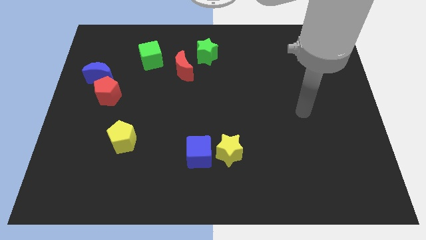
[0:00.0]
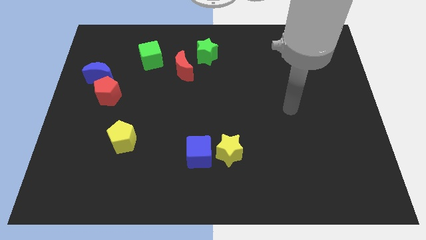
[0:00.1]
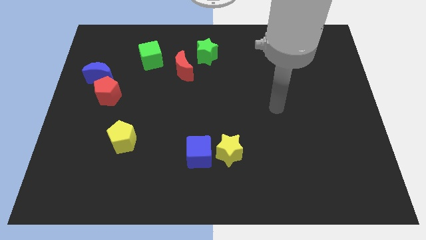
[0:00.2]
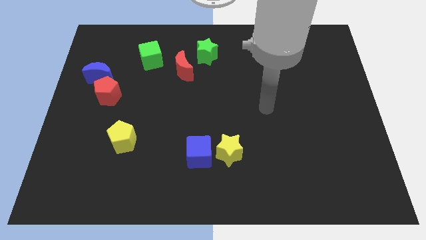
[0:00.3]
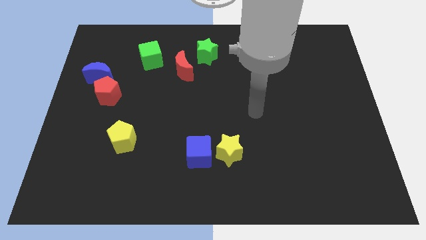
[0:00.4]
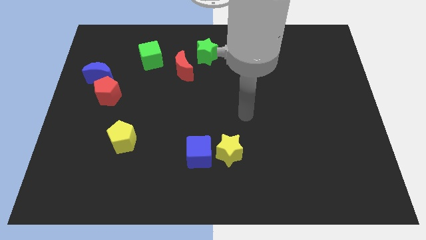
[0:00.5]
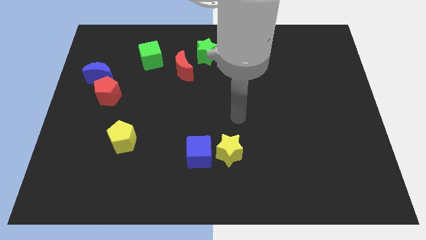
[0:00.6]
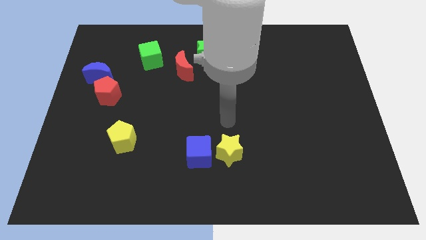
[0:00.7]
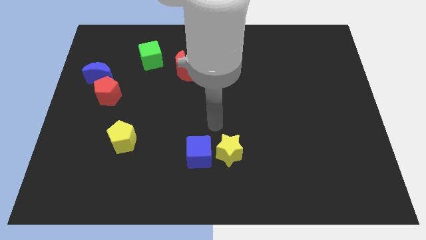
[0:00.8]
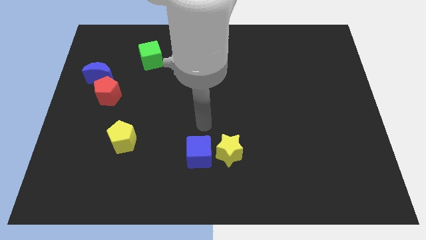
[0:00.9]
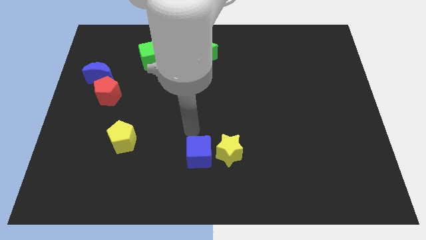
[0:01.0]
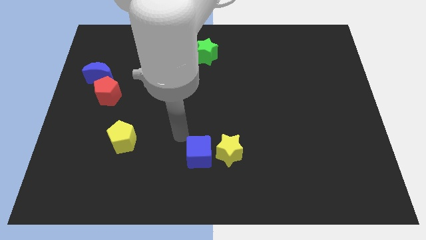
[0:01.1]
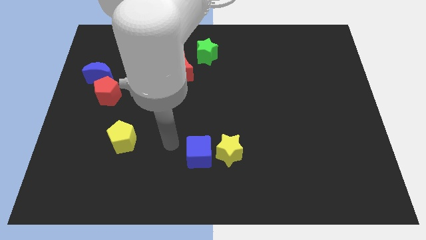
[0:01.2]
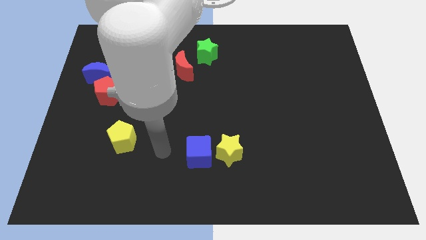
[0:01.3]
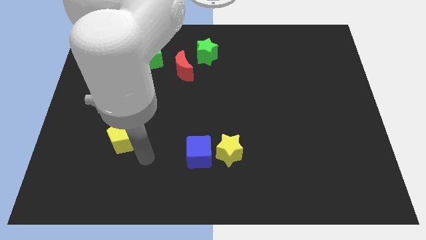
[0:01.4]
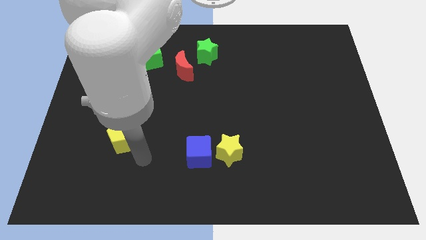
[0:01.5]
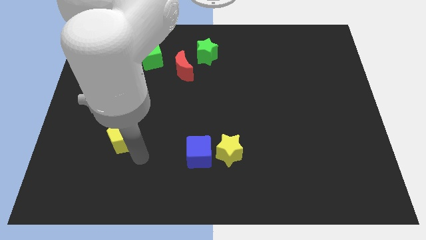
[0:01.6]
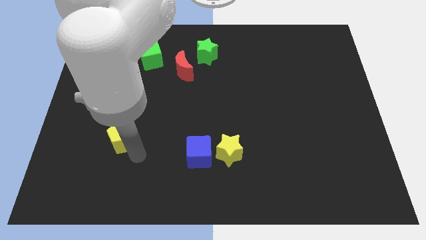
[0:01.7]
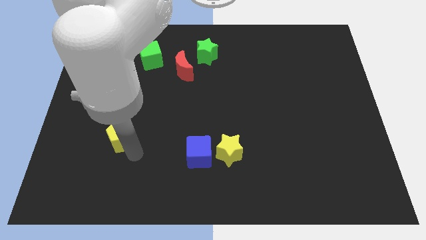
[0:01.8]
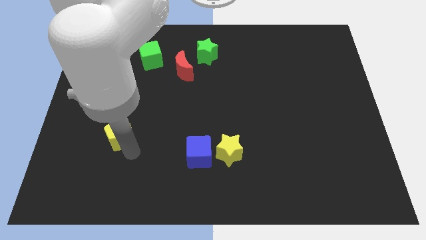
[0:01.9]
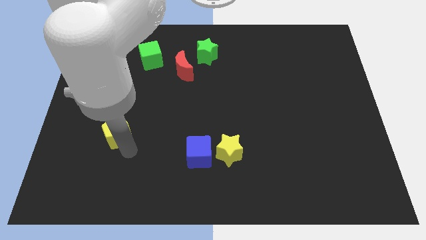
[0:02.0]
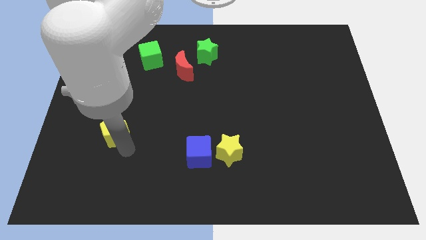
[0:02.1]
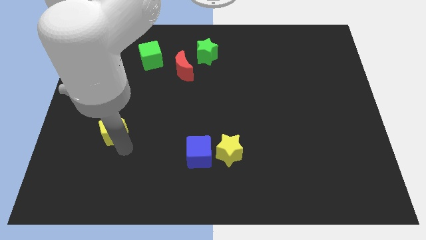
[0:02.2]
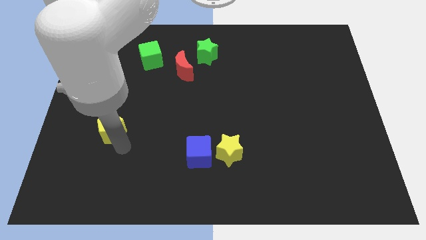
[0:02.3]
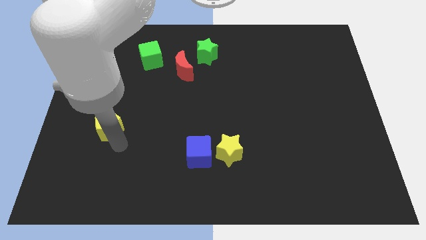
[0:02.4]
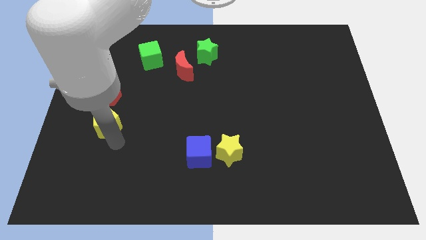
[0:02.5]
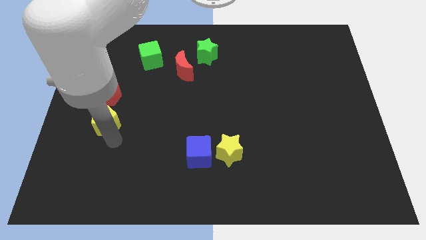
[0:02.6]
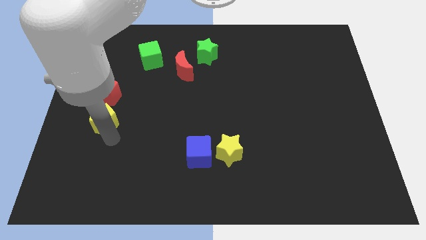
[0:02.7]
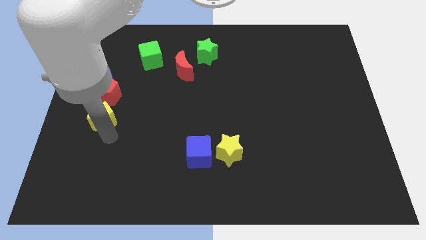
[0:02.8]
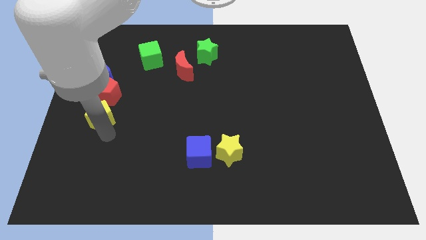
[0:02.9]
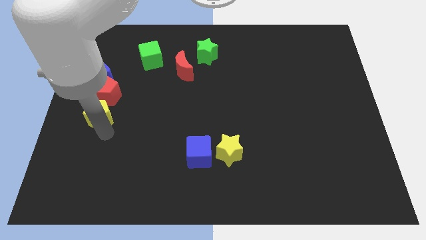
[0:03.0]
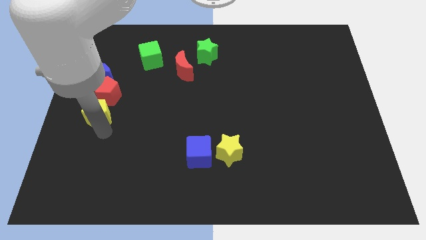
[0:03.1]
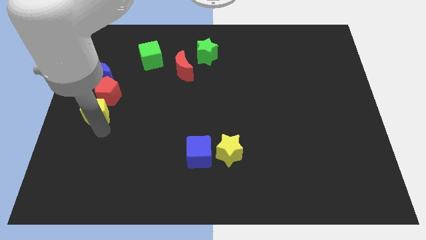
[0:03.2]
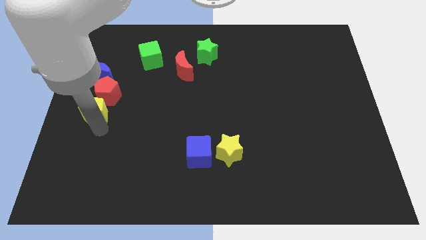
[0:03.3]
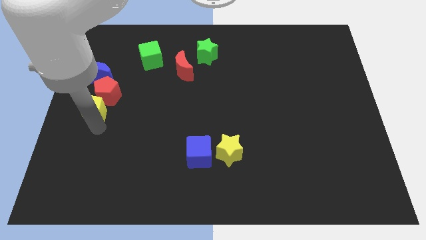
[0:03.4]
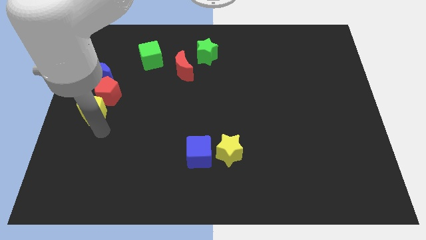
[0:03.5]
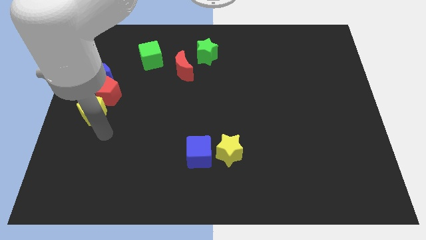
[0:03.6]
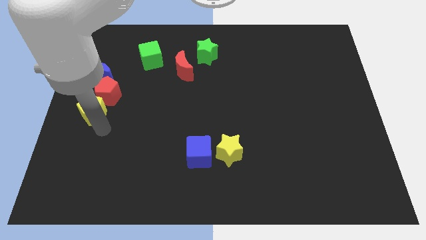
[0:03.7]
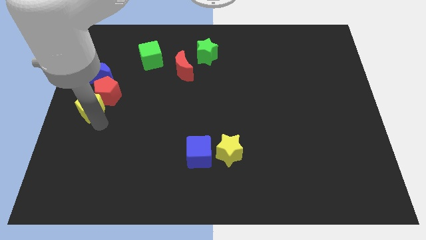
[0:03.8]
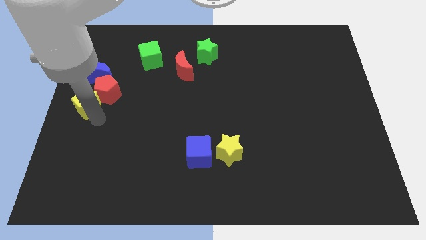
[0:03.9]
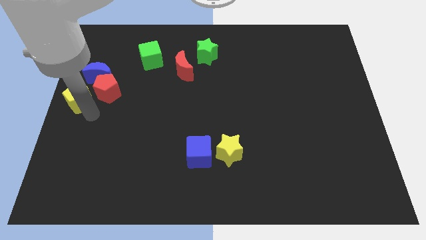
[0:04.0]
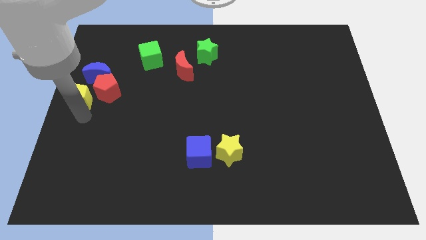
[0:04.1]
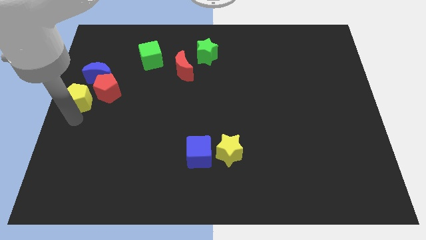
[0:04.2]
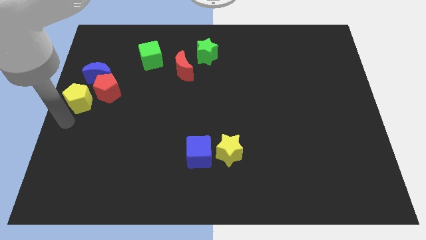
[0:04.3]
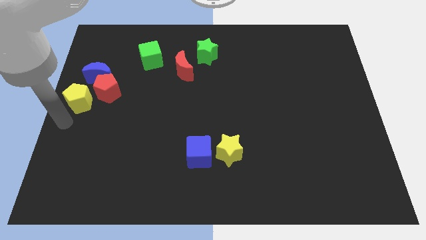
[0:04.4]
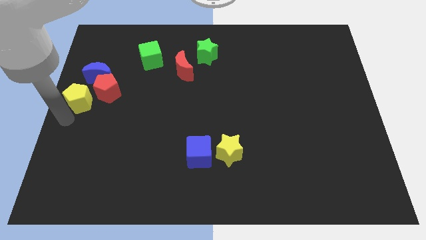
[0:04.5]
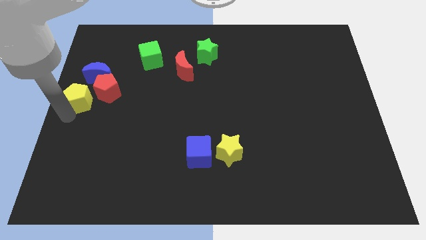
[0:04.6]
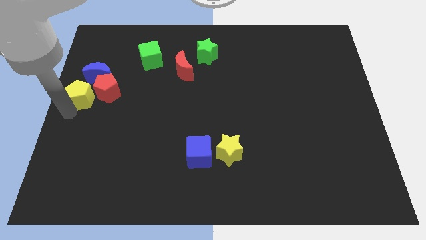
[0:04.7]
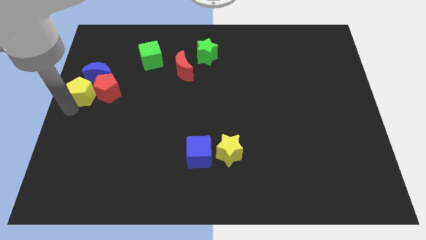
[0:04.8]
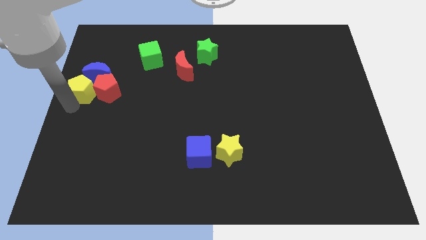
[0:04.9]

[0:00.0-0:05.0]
put the yellow pentagon next to the blue moon

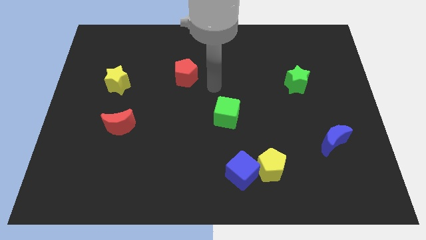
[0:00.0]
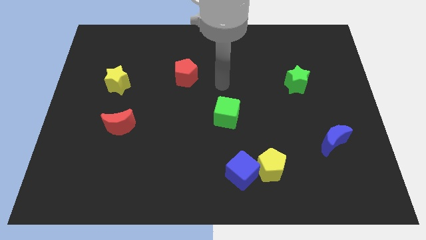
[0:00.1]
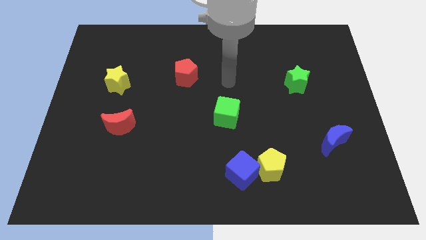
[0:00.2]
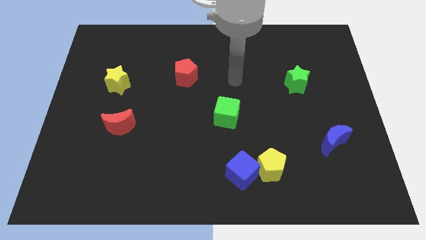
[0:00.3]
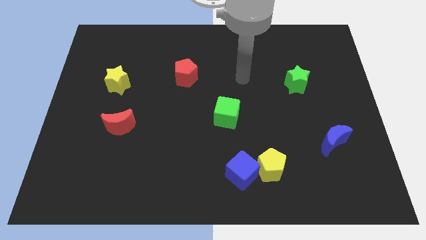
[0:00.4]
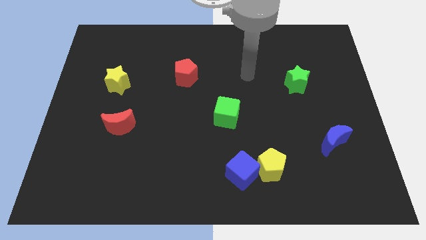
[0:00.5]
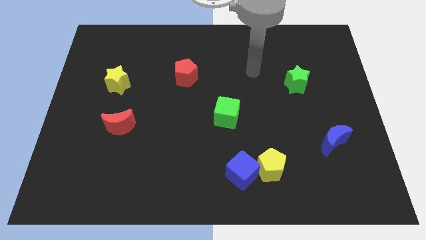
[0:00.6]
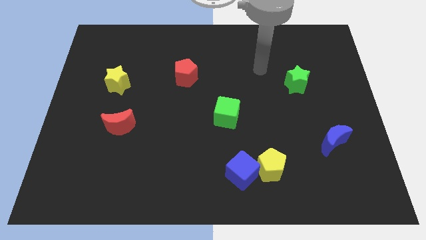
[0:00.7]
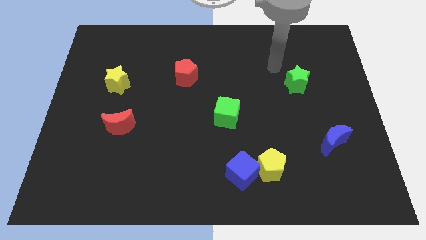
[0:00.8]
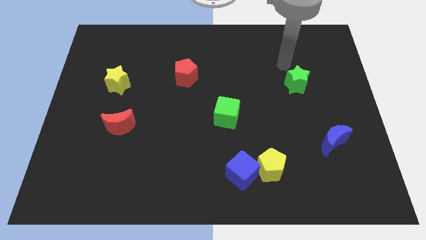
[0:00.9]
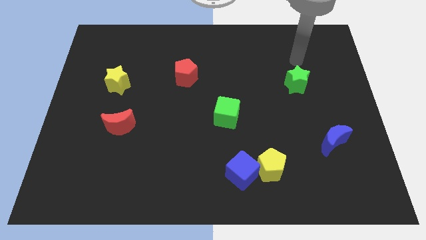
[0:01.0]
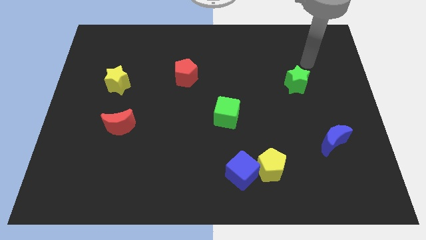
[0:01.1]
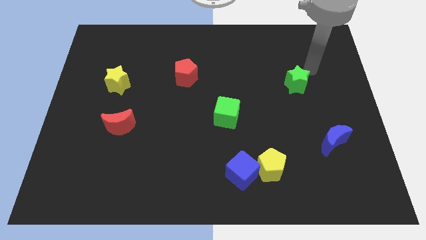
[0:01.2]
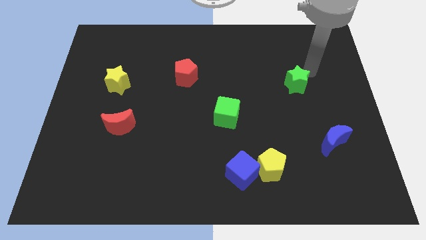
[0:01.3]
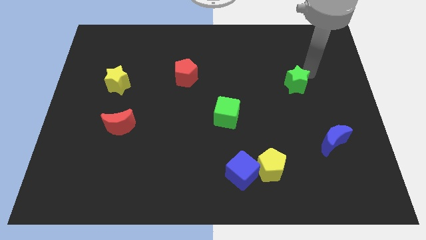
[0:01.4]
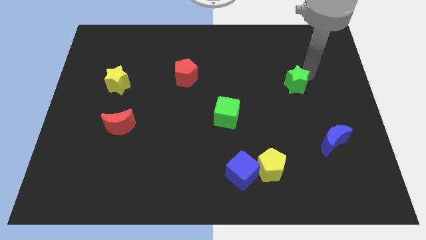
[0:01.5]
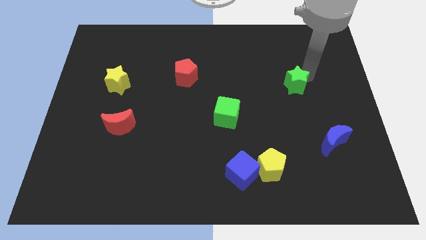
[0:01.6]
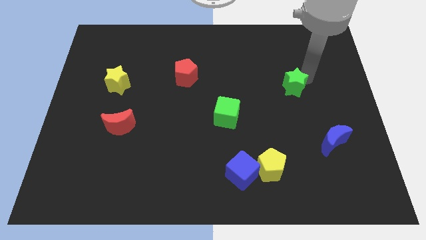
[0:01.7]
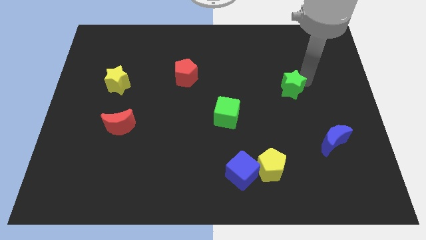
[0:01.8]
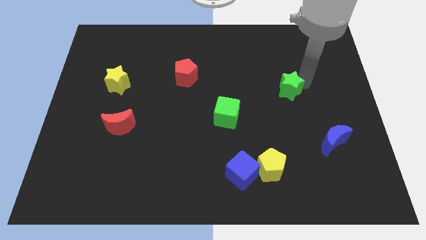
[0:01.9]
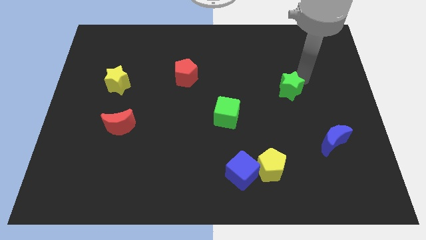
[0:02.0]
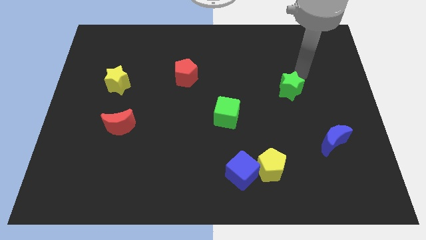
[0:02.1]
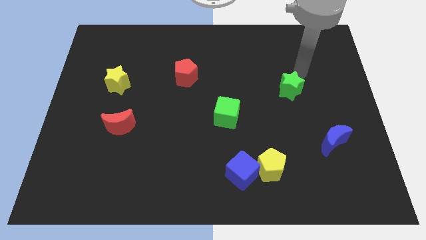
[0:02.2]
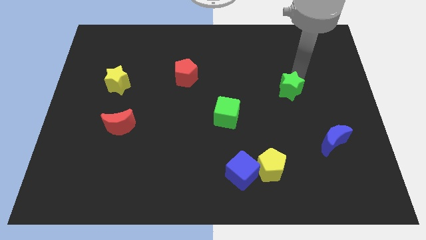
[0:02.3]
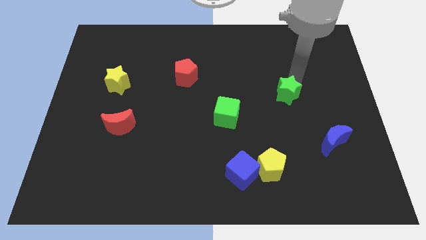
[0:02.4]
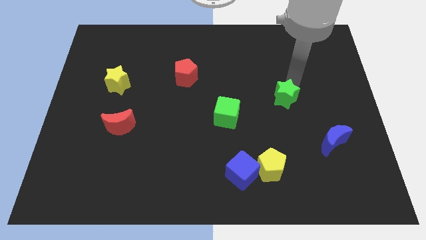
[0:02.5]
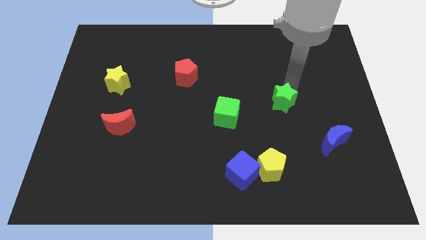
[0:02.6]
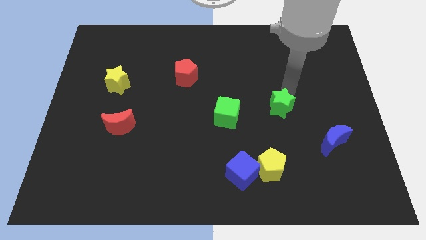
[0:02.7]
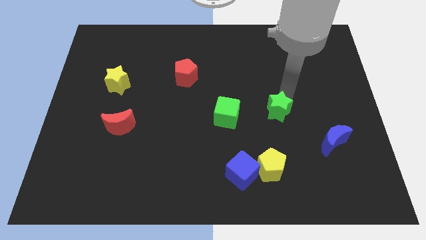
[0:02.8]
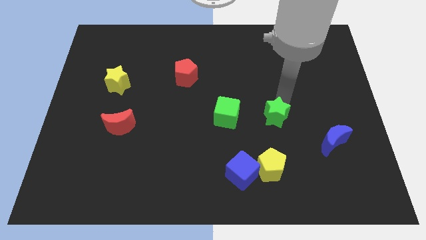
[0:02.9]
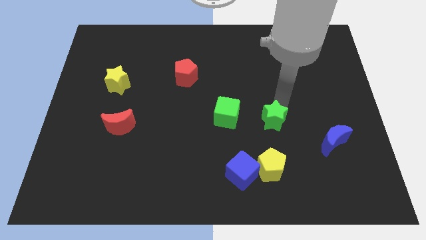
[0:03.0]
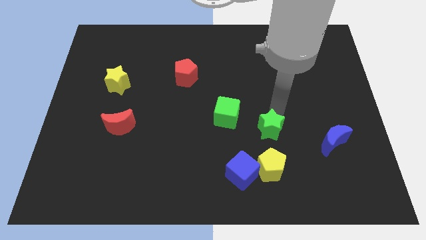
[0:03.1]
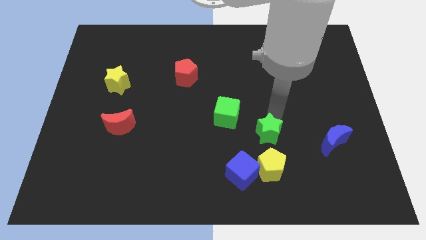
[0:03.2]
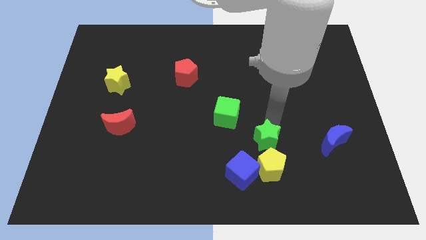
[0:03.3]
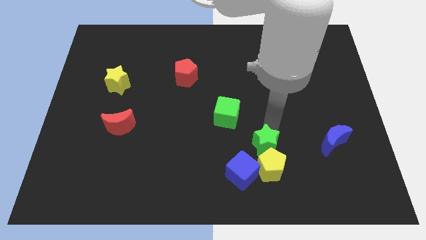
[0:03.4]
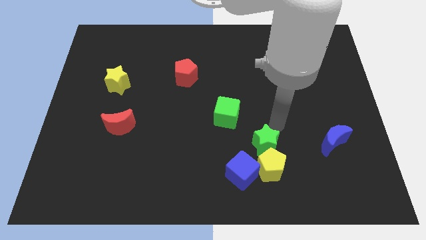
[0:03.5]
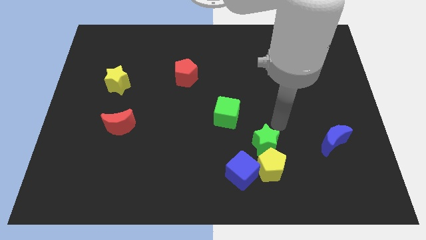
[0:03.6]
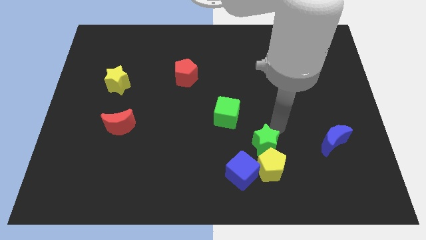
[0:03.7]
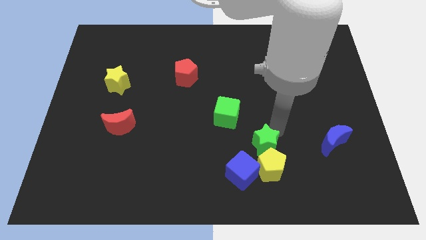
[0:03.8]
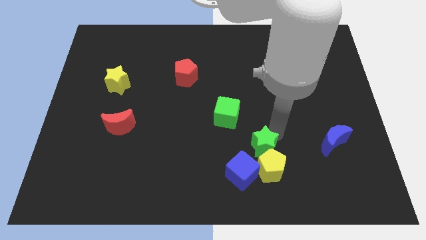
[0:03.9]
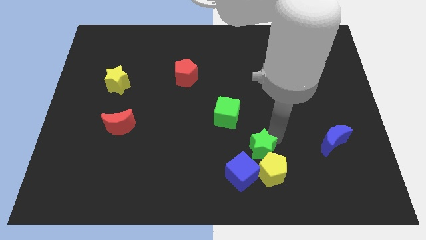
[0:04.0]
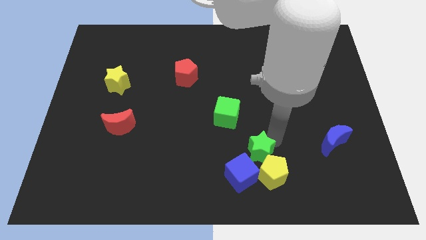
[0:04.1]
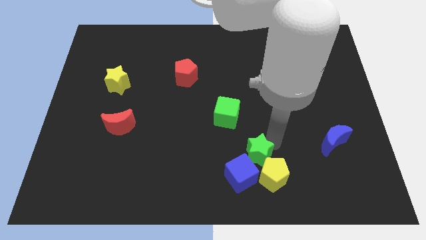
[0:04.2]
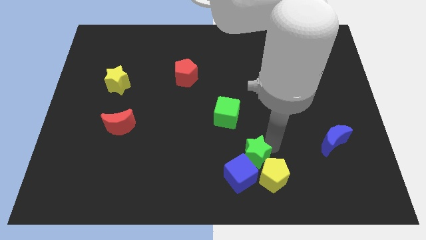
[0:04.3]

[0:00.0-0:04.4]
put the green star towards the blue cube
